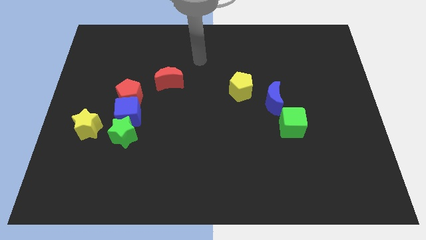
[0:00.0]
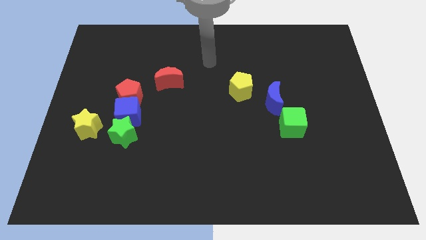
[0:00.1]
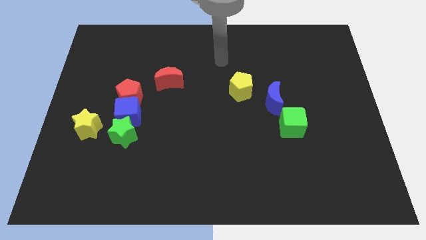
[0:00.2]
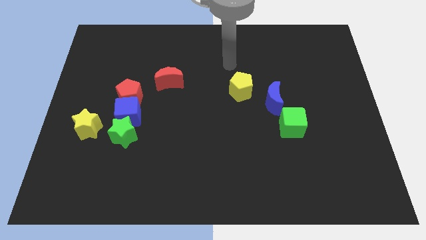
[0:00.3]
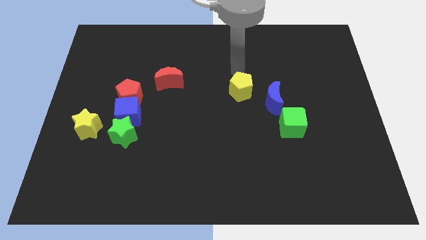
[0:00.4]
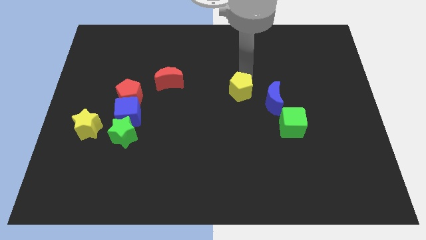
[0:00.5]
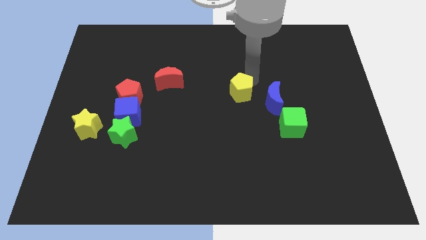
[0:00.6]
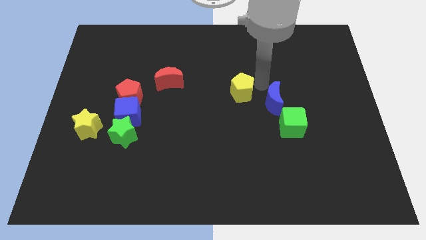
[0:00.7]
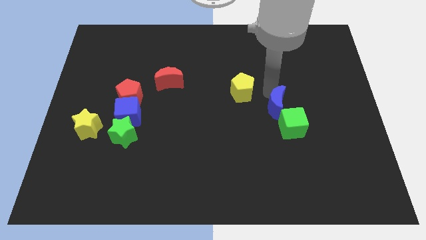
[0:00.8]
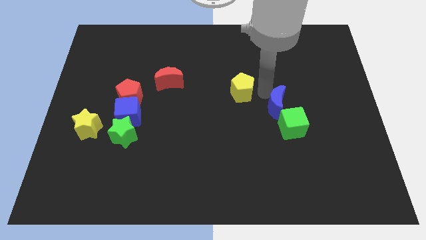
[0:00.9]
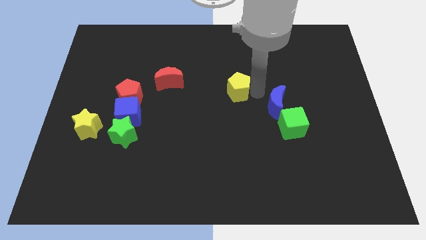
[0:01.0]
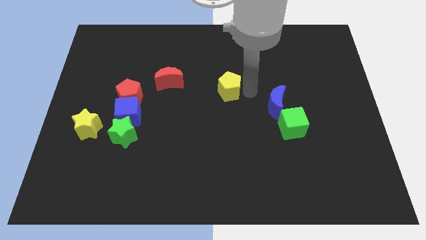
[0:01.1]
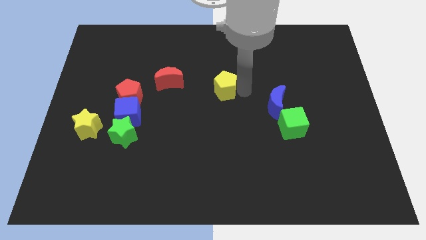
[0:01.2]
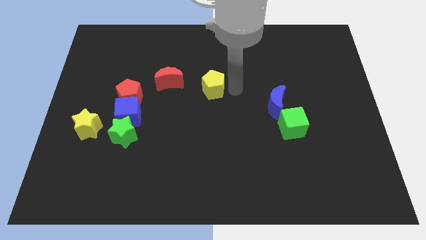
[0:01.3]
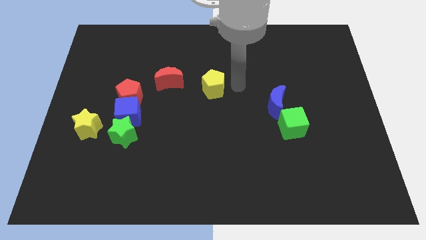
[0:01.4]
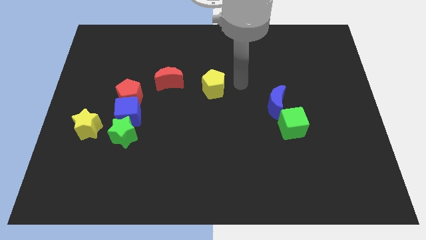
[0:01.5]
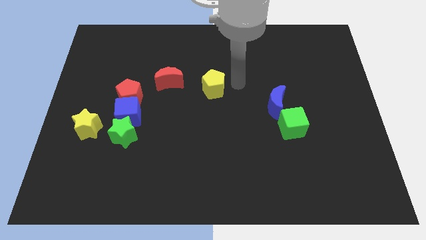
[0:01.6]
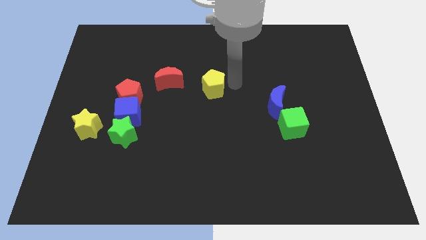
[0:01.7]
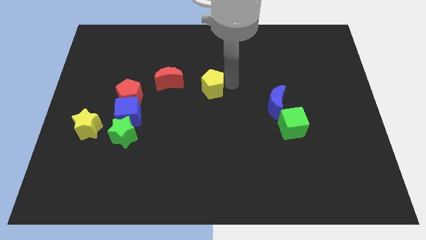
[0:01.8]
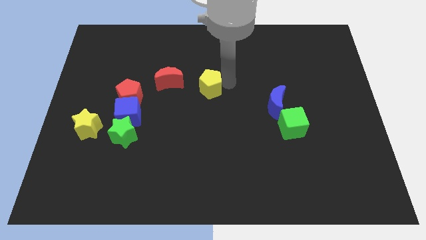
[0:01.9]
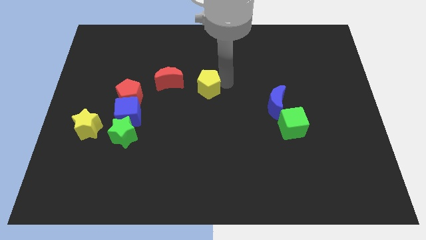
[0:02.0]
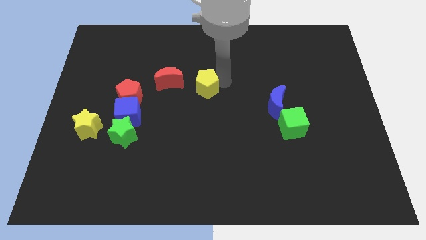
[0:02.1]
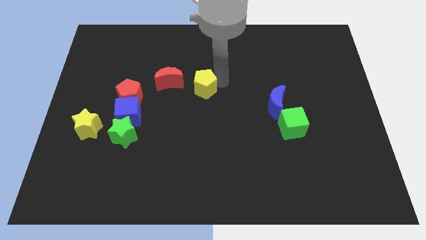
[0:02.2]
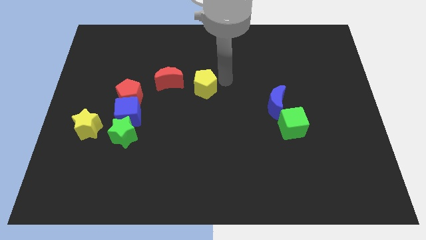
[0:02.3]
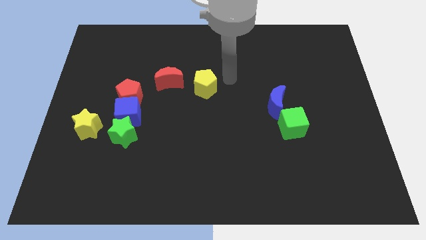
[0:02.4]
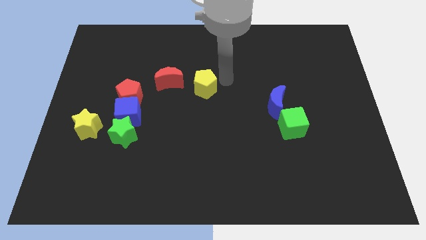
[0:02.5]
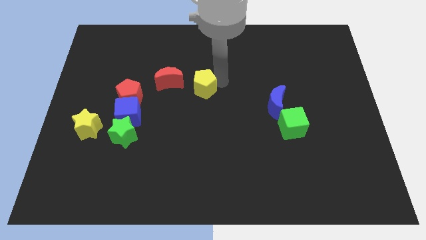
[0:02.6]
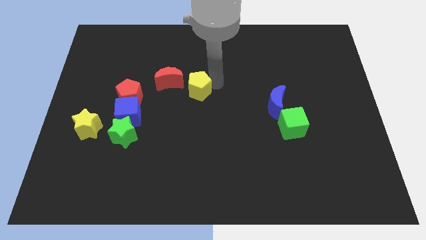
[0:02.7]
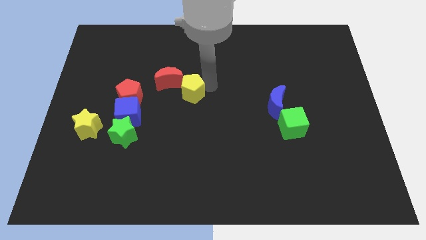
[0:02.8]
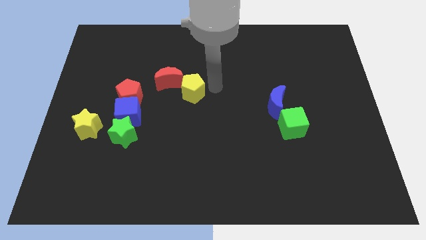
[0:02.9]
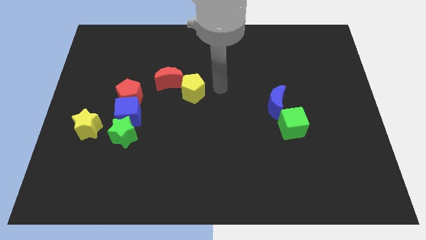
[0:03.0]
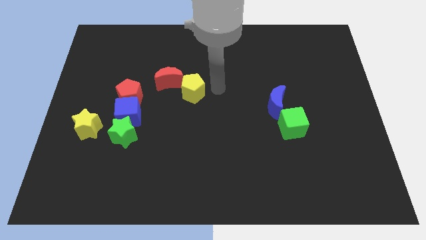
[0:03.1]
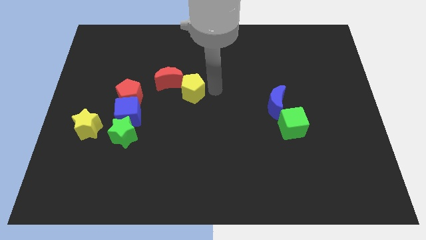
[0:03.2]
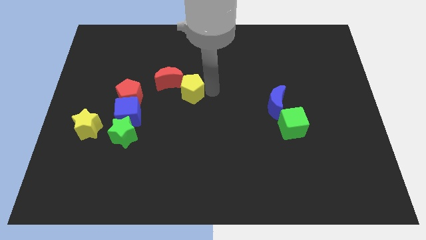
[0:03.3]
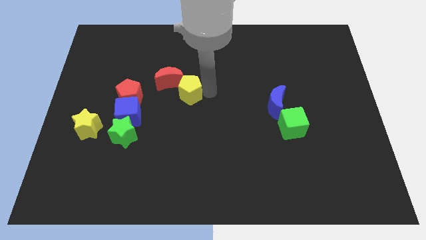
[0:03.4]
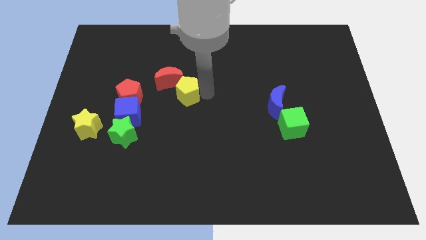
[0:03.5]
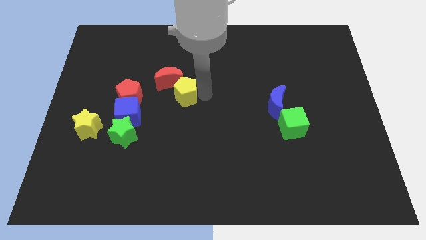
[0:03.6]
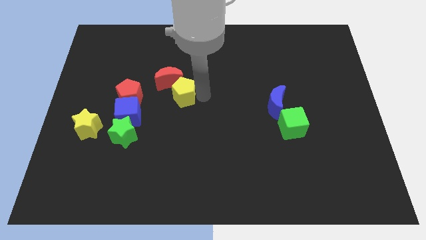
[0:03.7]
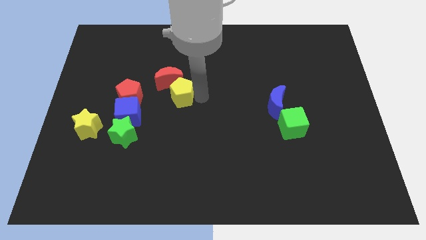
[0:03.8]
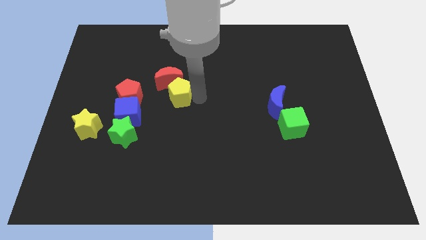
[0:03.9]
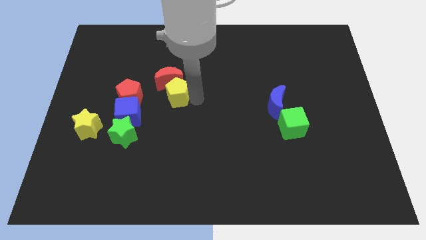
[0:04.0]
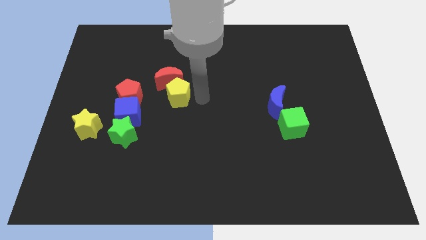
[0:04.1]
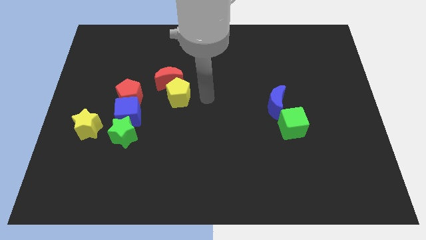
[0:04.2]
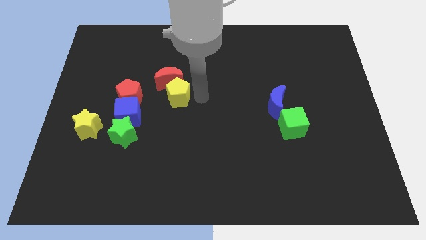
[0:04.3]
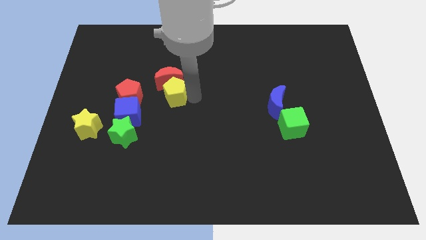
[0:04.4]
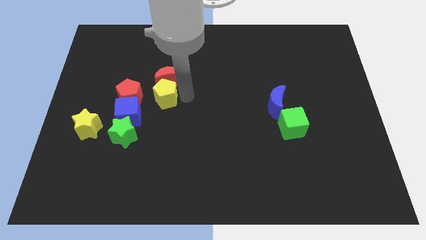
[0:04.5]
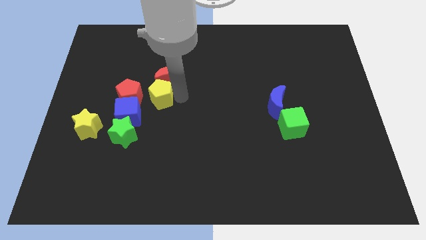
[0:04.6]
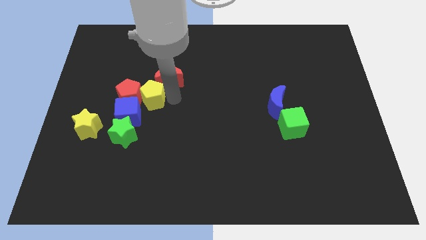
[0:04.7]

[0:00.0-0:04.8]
move the yellow pentagon left

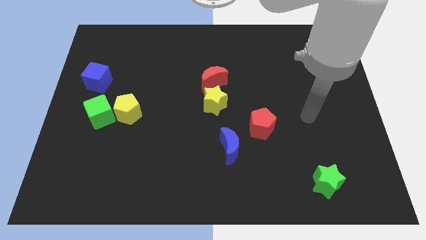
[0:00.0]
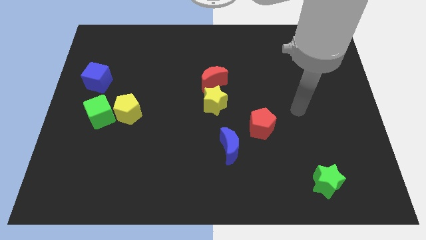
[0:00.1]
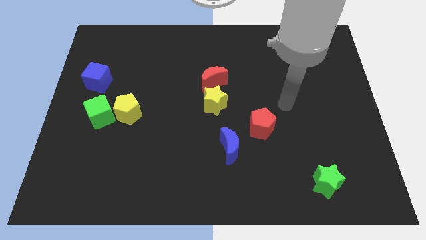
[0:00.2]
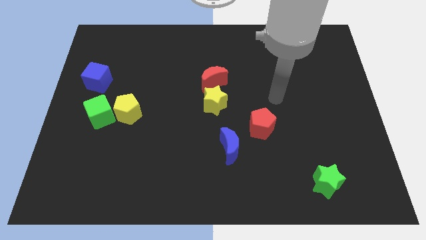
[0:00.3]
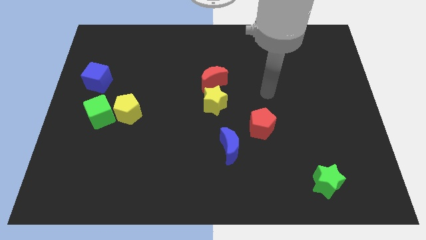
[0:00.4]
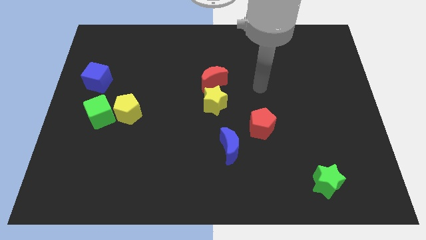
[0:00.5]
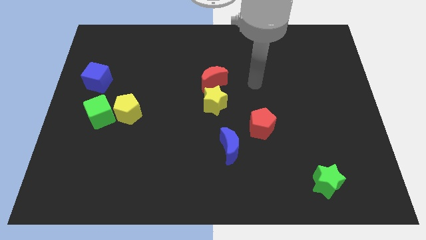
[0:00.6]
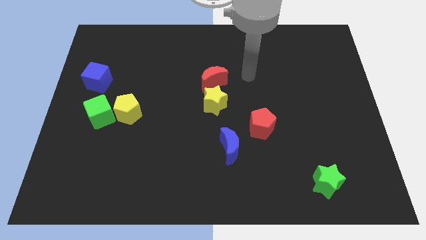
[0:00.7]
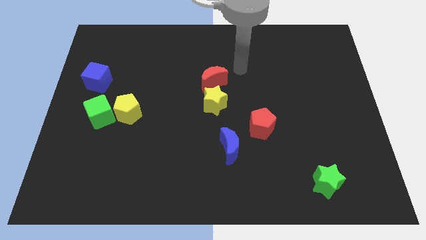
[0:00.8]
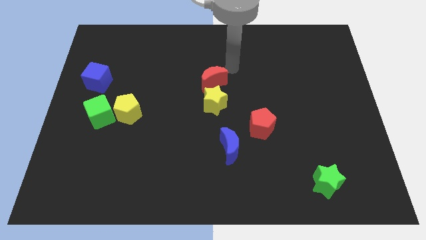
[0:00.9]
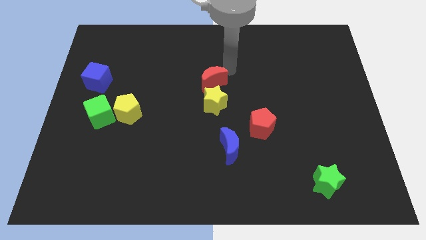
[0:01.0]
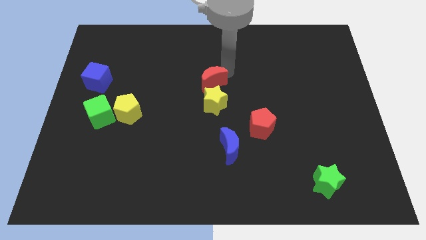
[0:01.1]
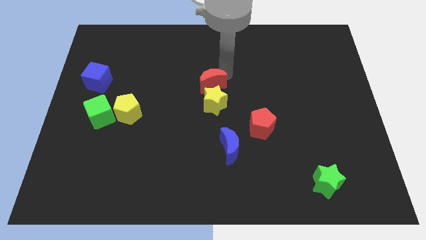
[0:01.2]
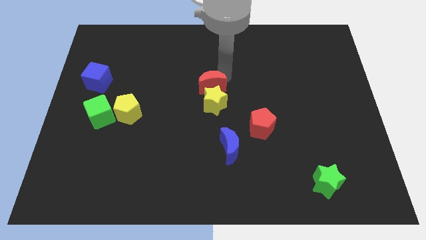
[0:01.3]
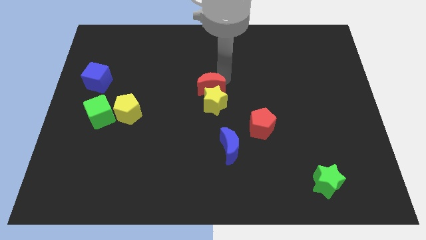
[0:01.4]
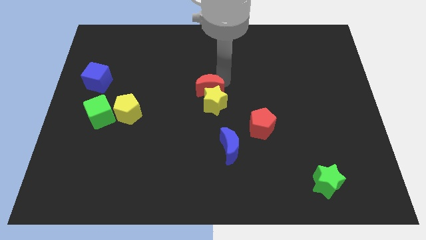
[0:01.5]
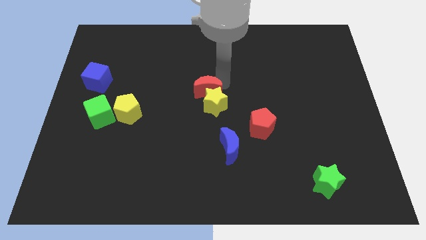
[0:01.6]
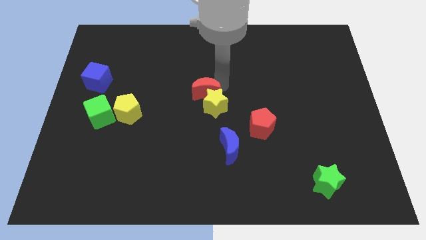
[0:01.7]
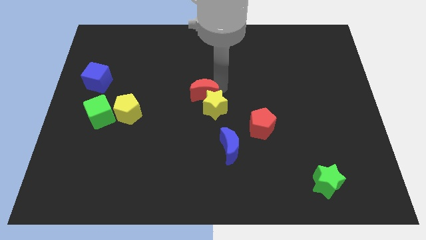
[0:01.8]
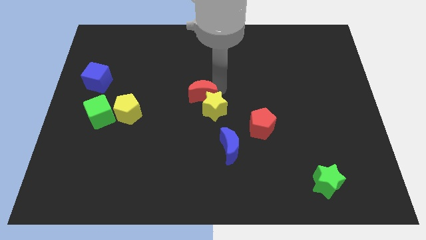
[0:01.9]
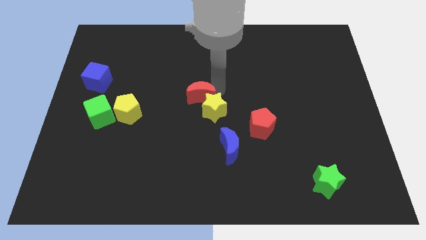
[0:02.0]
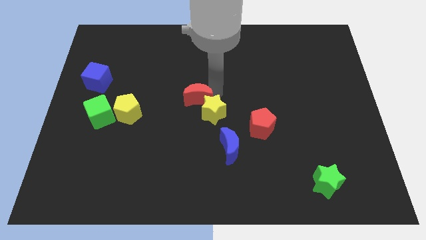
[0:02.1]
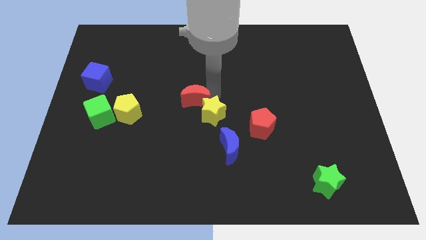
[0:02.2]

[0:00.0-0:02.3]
slide the red moon a little bit diagonally down and to the left

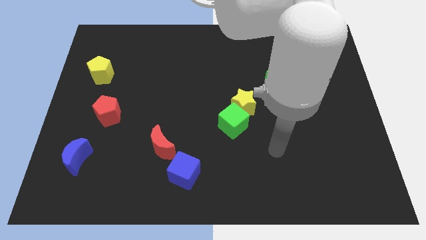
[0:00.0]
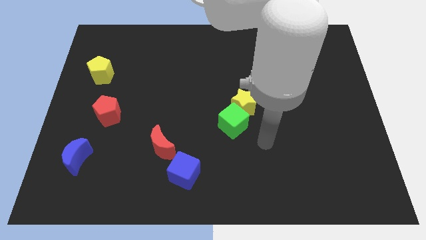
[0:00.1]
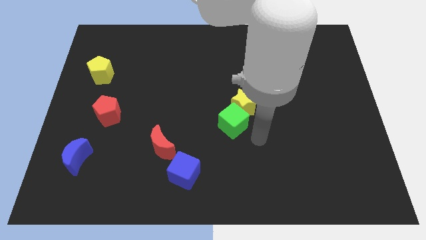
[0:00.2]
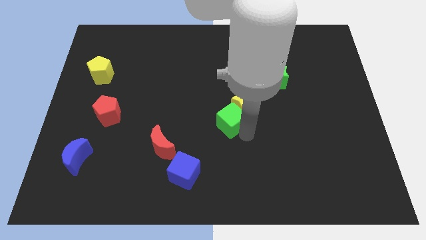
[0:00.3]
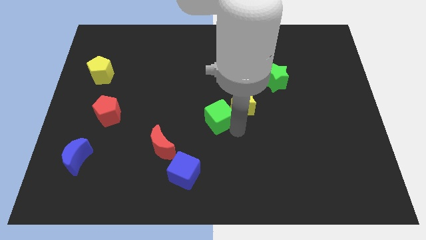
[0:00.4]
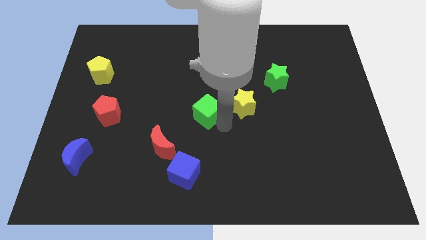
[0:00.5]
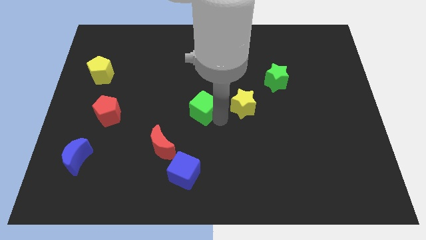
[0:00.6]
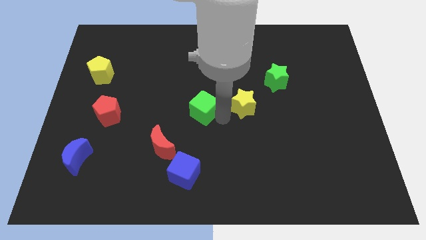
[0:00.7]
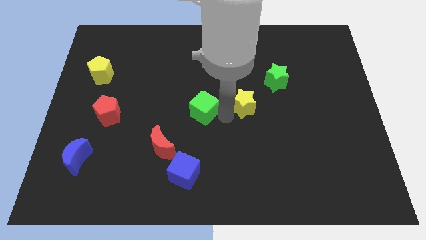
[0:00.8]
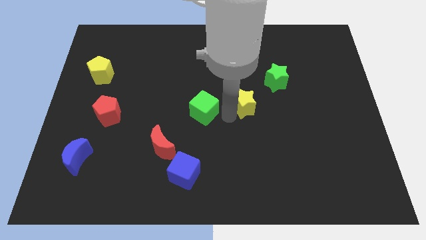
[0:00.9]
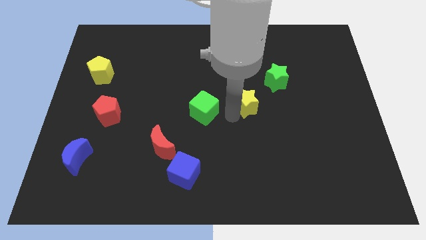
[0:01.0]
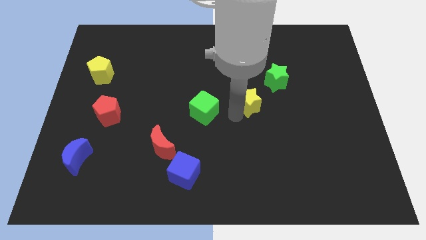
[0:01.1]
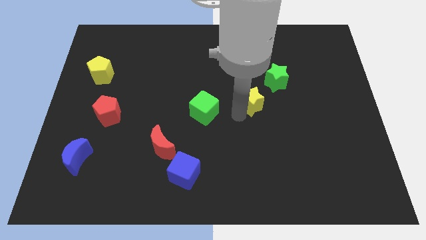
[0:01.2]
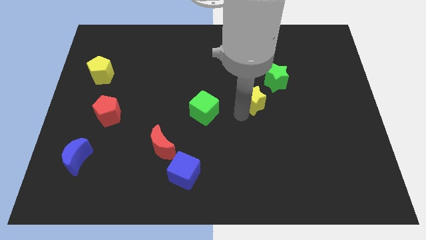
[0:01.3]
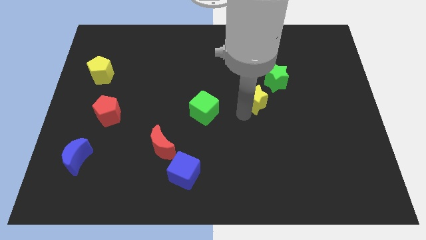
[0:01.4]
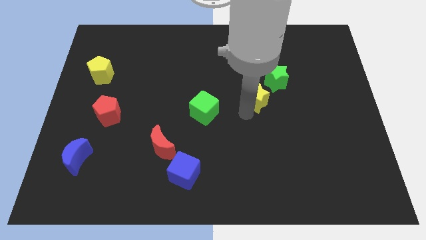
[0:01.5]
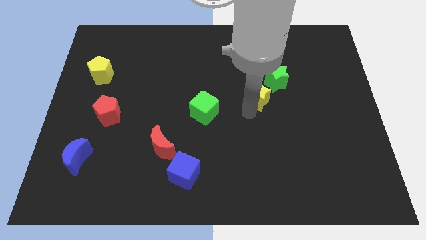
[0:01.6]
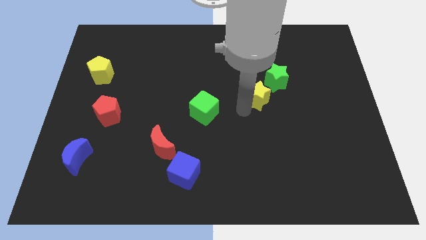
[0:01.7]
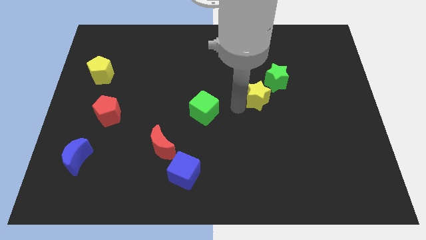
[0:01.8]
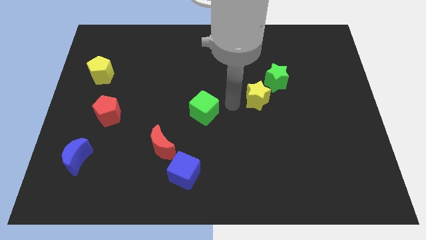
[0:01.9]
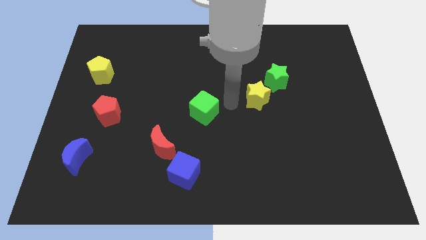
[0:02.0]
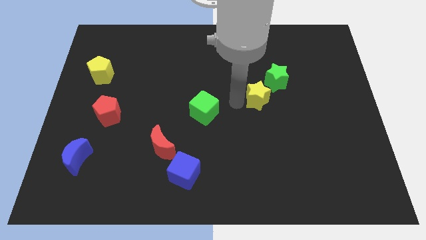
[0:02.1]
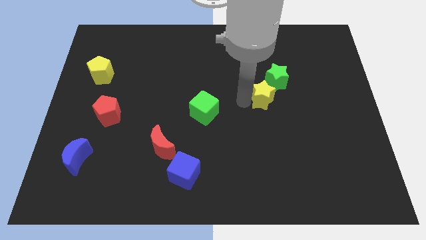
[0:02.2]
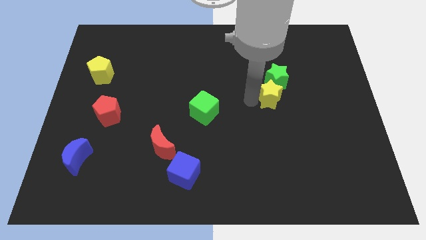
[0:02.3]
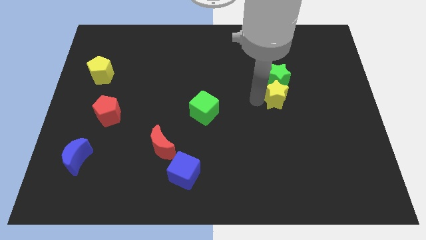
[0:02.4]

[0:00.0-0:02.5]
slightly move the yellow star diagonally up and right
